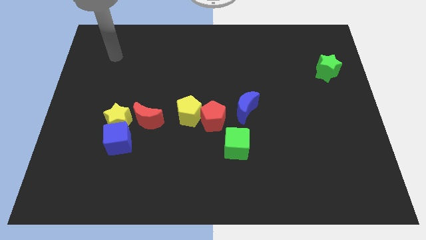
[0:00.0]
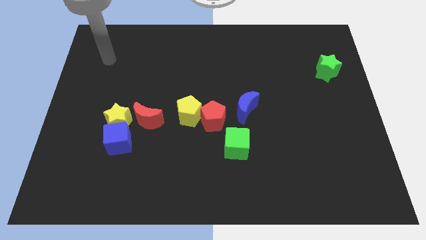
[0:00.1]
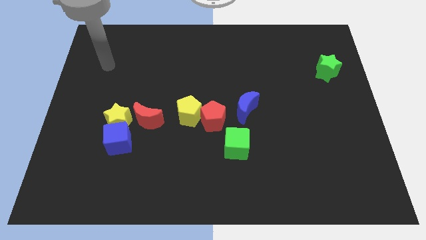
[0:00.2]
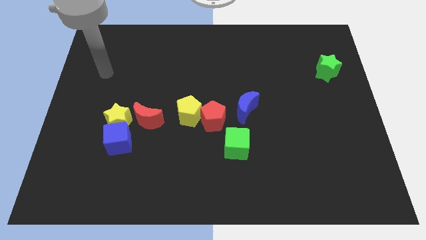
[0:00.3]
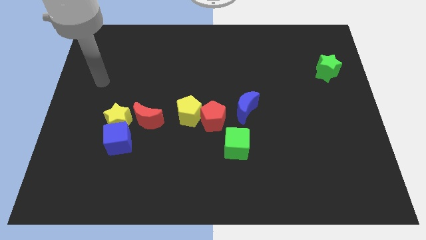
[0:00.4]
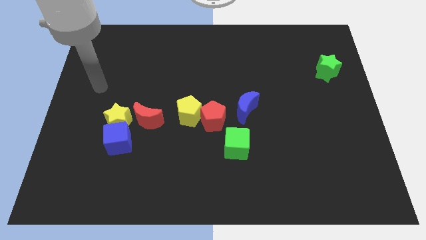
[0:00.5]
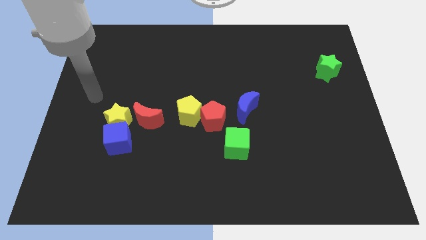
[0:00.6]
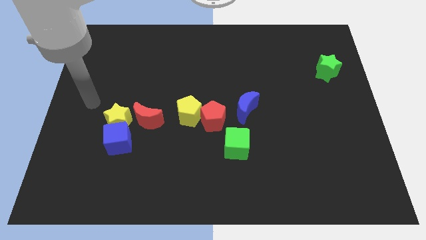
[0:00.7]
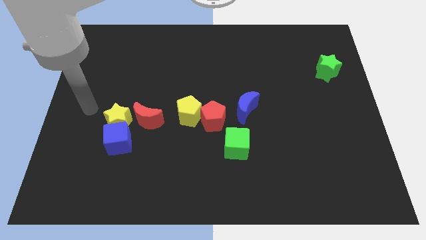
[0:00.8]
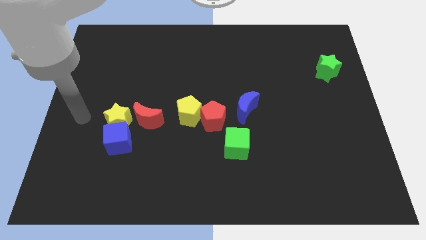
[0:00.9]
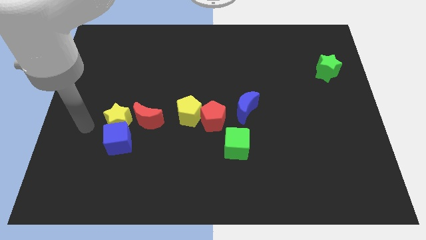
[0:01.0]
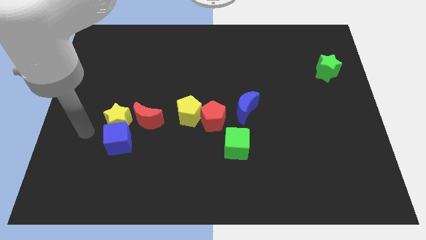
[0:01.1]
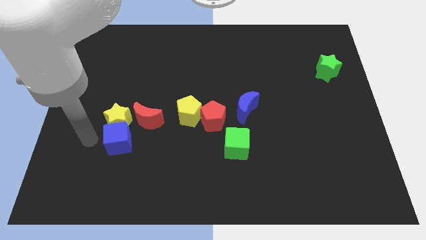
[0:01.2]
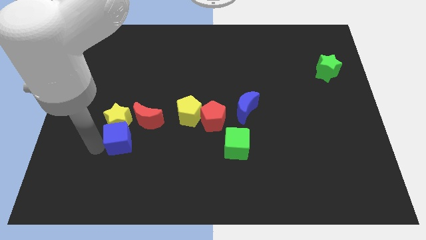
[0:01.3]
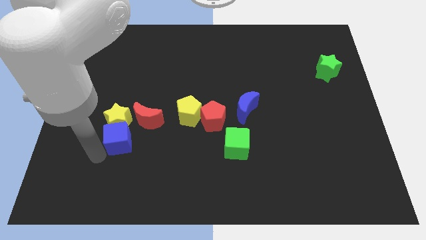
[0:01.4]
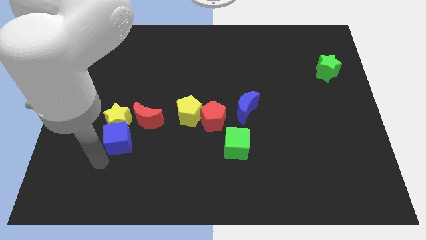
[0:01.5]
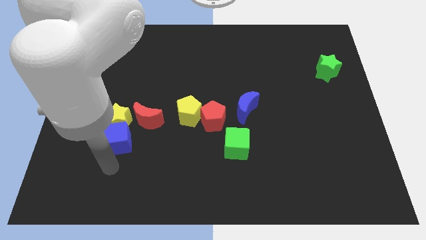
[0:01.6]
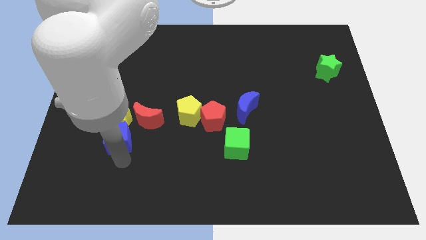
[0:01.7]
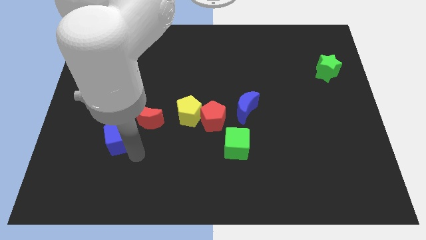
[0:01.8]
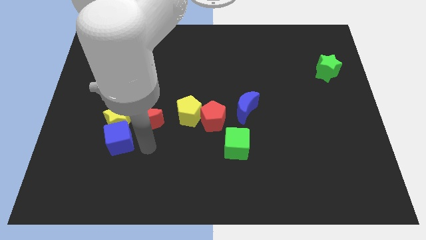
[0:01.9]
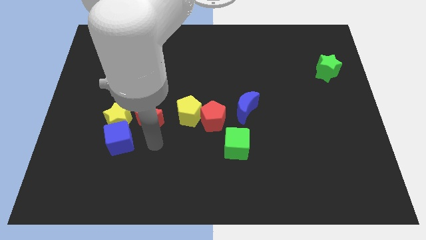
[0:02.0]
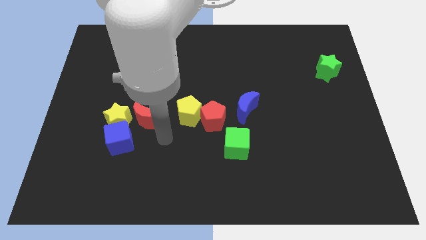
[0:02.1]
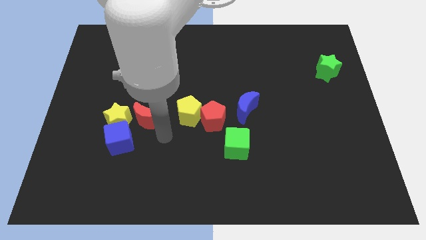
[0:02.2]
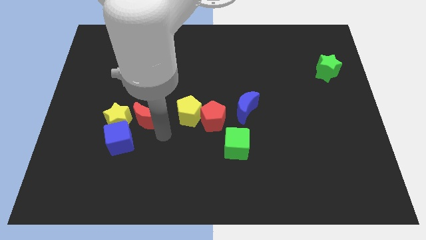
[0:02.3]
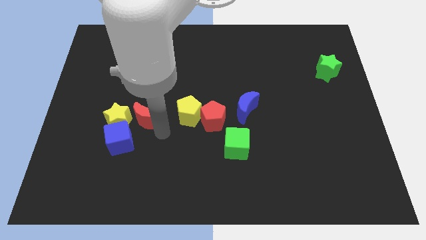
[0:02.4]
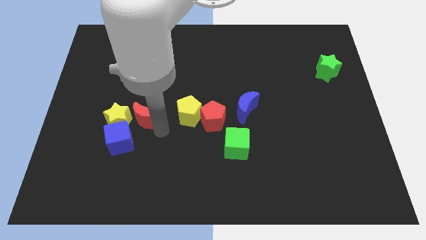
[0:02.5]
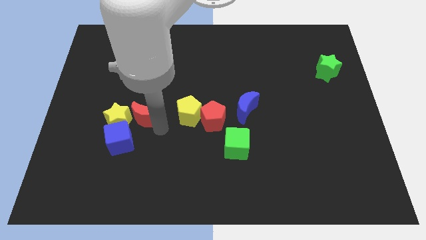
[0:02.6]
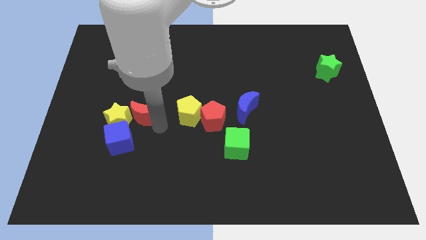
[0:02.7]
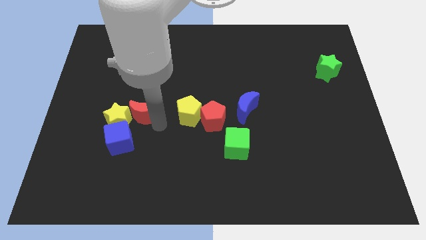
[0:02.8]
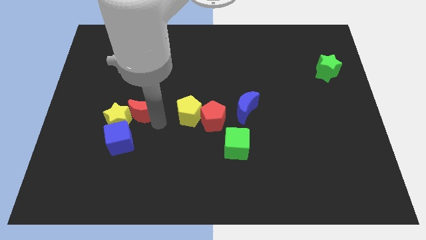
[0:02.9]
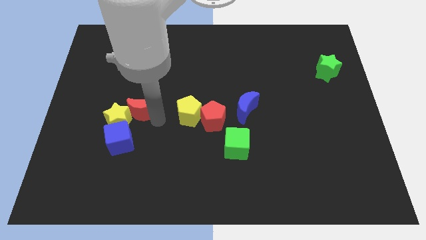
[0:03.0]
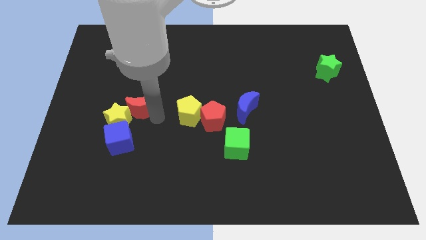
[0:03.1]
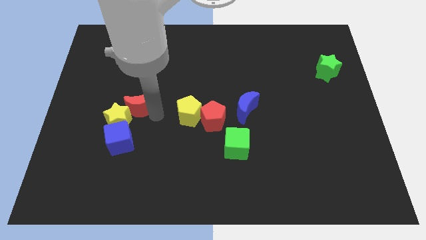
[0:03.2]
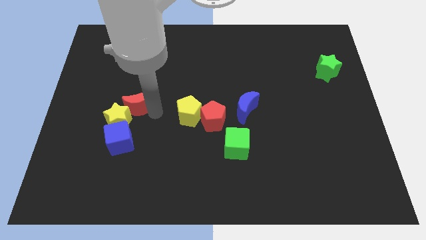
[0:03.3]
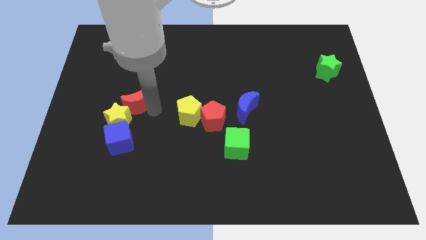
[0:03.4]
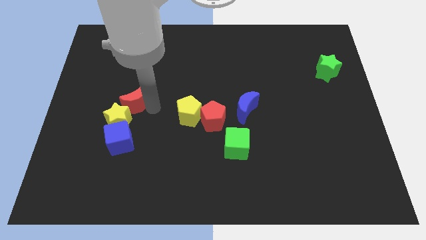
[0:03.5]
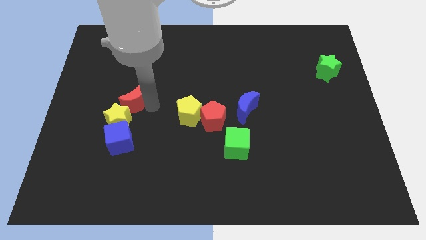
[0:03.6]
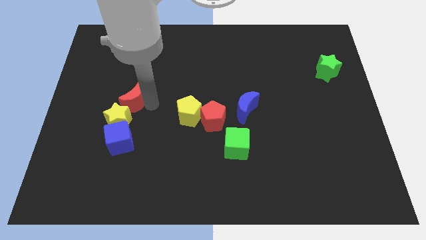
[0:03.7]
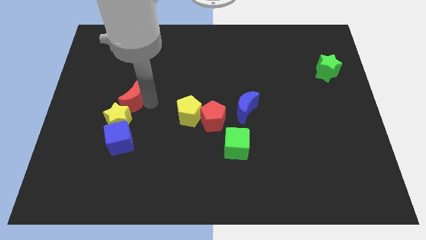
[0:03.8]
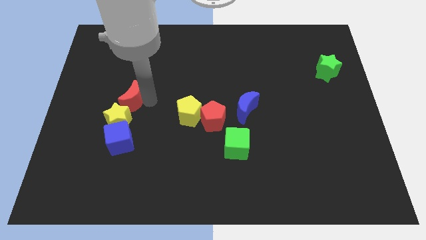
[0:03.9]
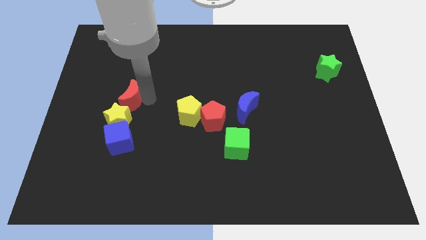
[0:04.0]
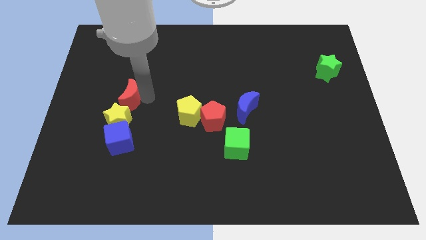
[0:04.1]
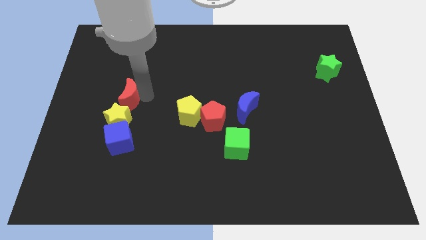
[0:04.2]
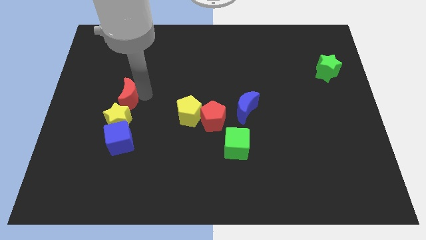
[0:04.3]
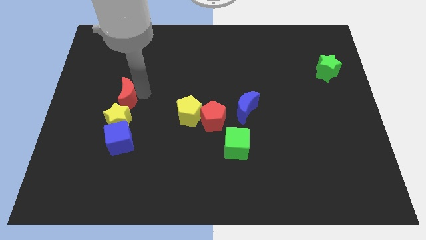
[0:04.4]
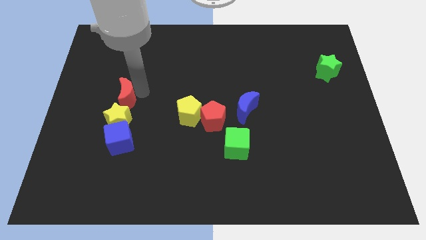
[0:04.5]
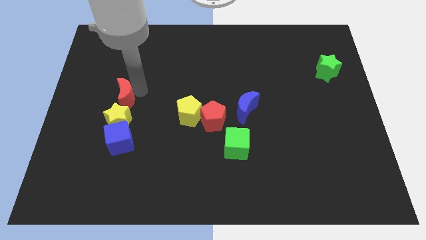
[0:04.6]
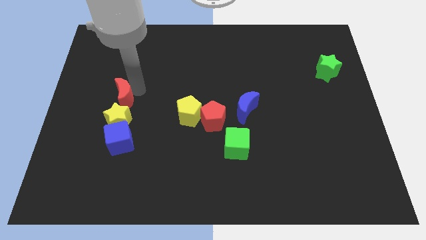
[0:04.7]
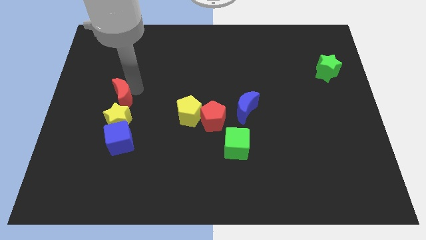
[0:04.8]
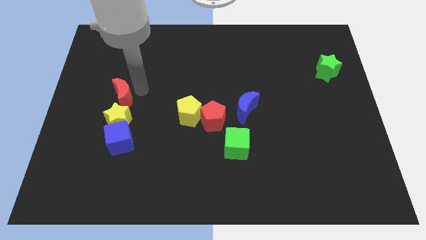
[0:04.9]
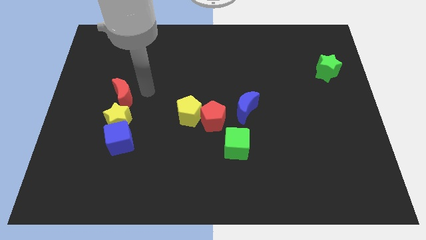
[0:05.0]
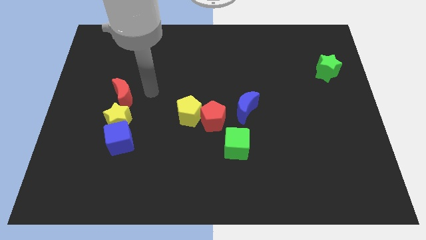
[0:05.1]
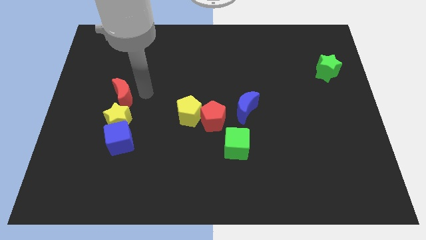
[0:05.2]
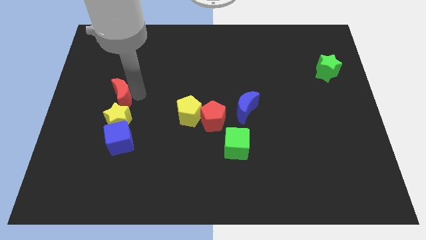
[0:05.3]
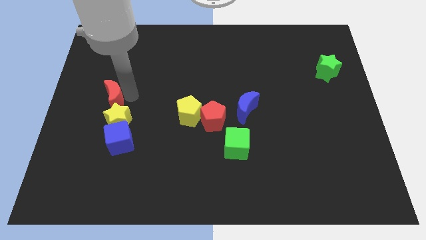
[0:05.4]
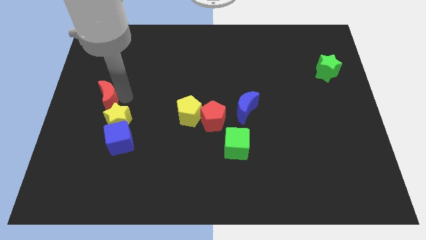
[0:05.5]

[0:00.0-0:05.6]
move the red moon to the center left

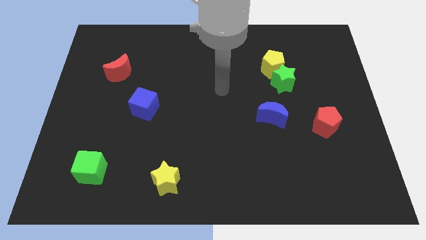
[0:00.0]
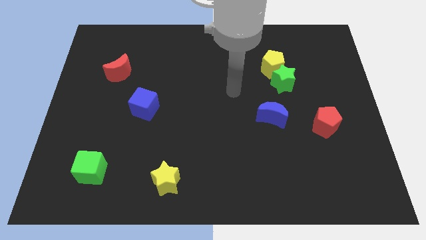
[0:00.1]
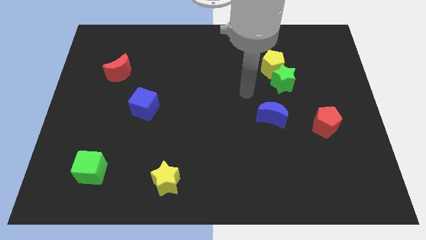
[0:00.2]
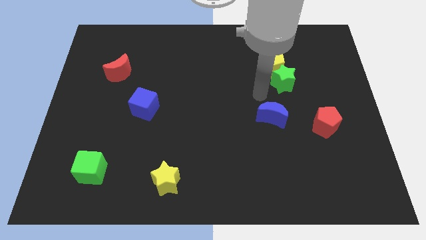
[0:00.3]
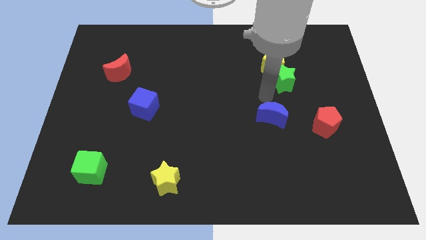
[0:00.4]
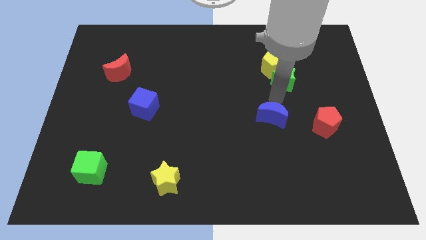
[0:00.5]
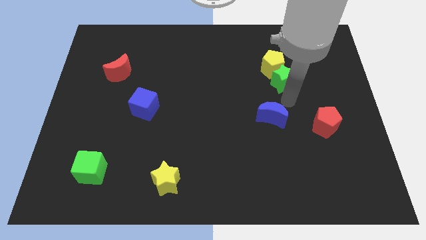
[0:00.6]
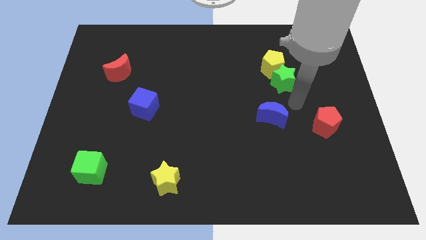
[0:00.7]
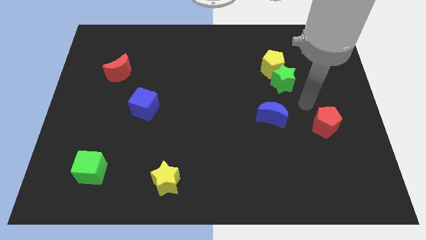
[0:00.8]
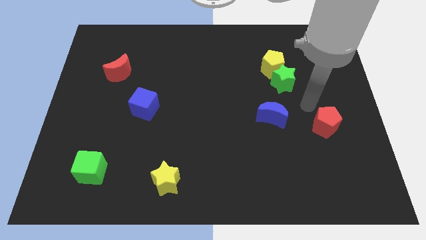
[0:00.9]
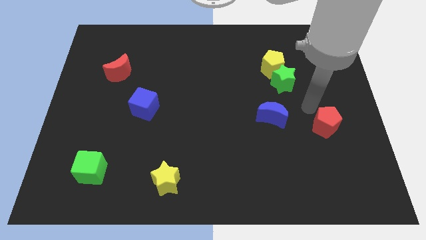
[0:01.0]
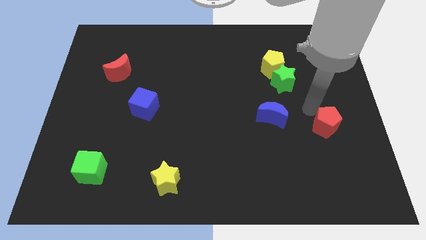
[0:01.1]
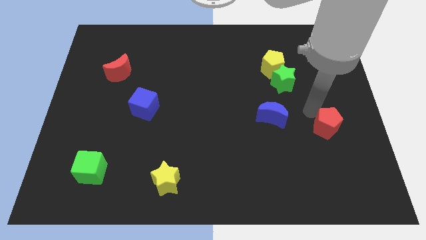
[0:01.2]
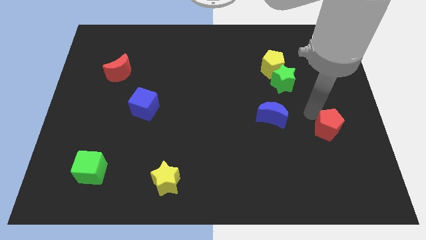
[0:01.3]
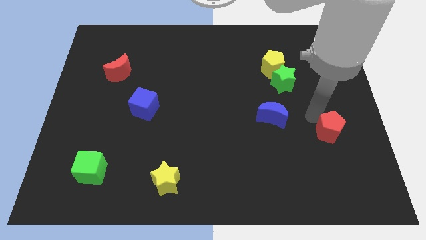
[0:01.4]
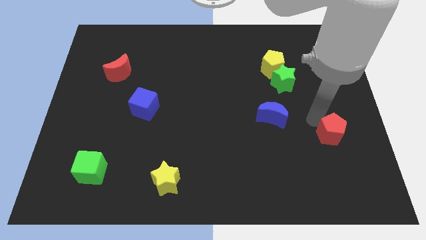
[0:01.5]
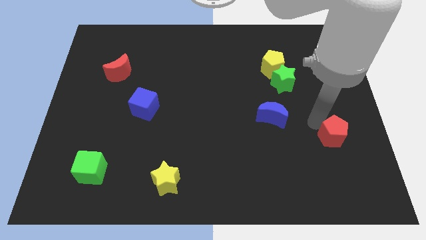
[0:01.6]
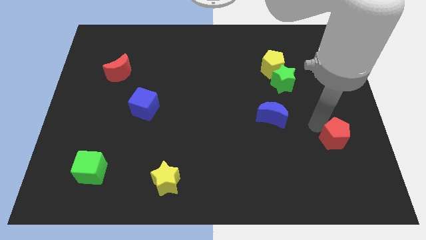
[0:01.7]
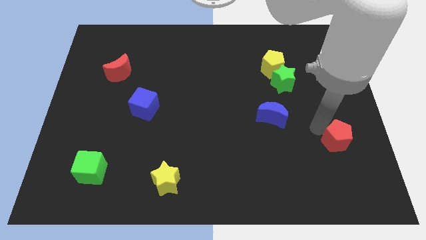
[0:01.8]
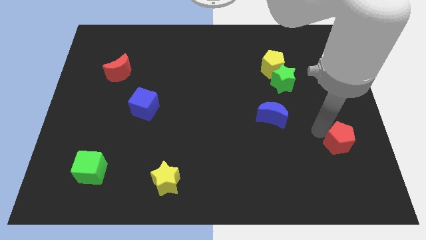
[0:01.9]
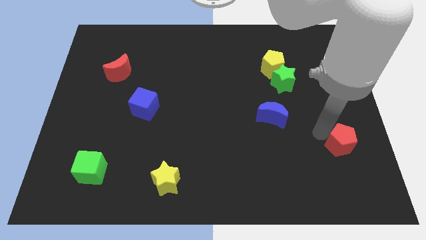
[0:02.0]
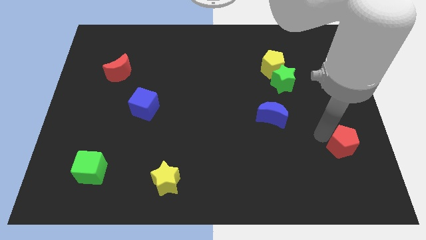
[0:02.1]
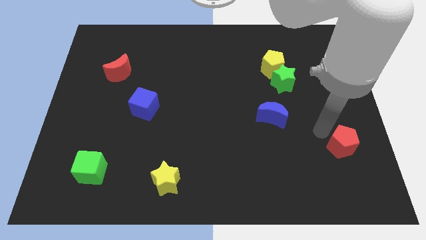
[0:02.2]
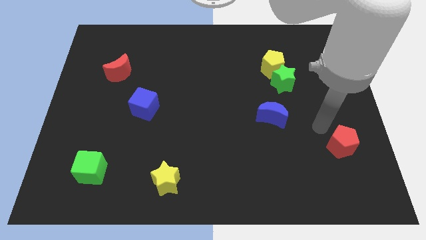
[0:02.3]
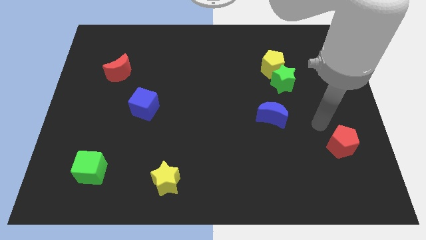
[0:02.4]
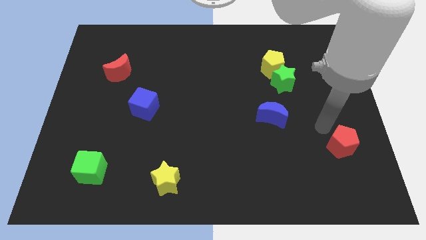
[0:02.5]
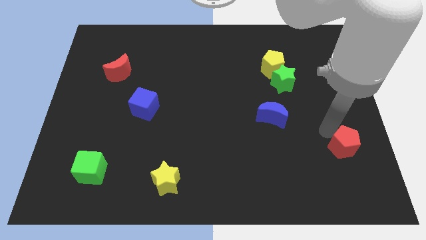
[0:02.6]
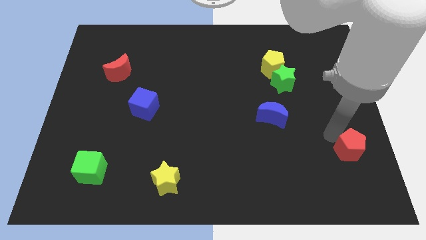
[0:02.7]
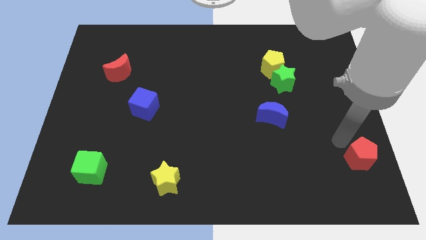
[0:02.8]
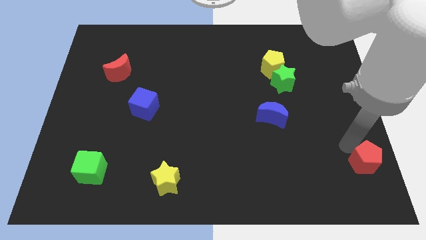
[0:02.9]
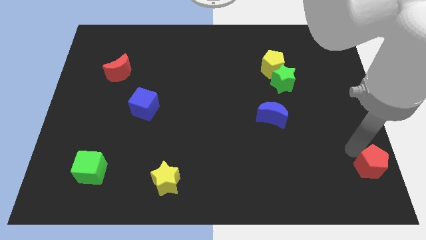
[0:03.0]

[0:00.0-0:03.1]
move the red pentagon to the lower right corner
